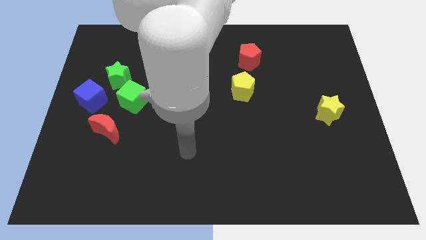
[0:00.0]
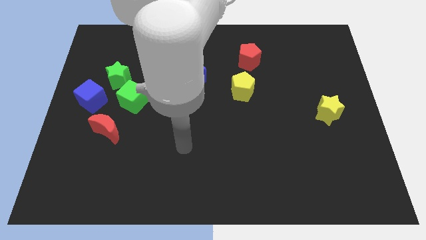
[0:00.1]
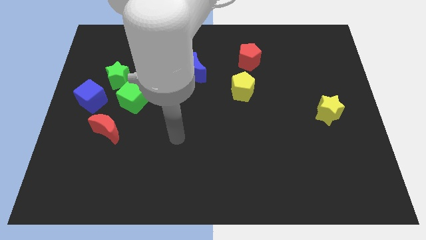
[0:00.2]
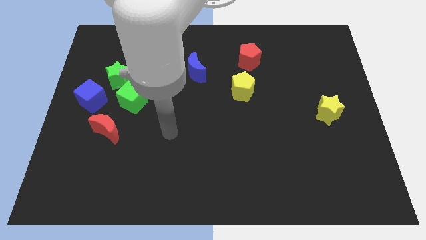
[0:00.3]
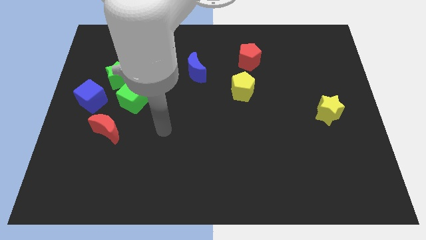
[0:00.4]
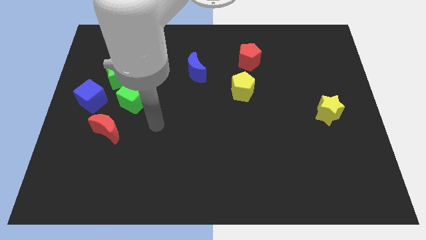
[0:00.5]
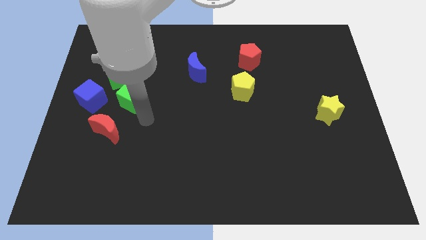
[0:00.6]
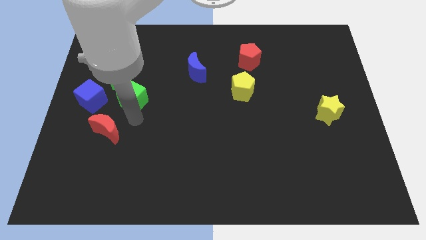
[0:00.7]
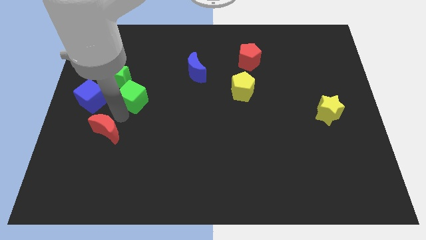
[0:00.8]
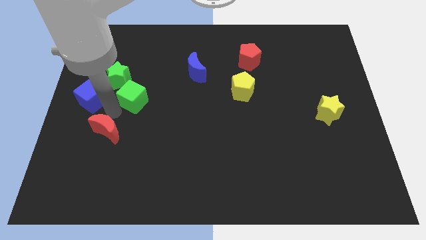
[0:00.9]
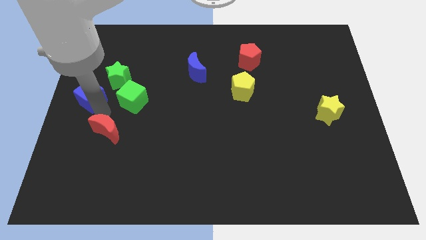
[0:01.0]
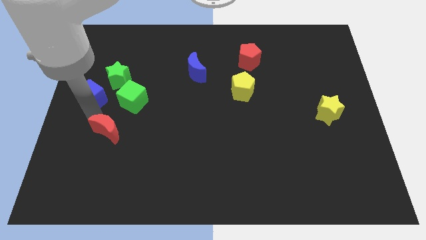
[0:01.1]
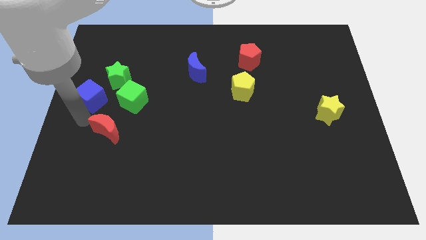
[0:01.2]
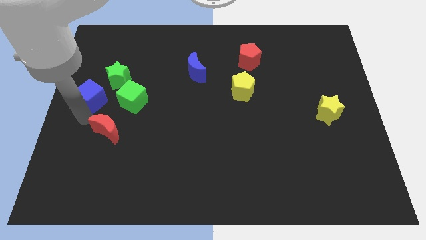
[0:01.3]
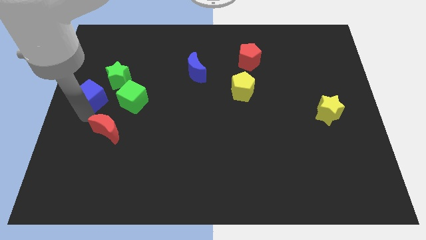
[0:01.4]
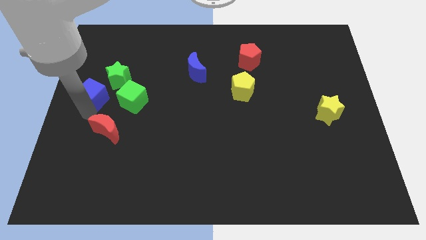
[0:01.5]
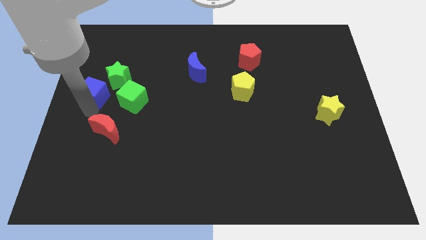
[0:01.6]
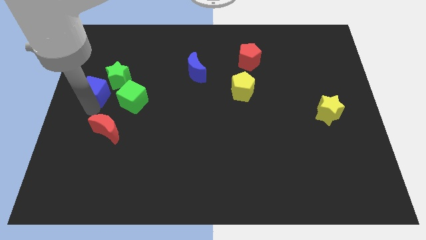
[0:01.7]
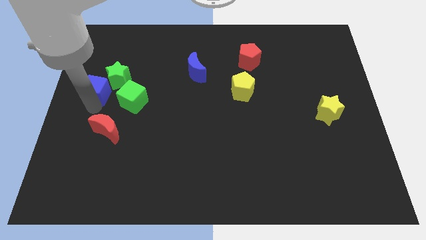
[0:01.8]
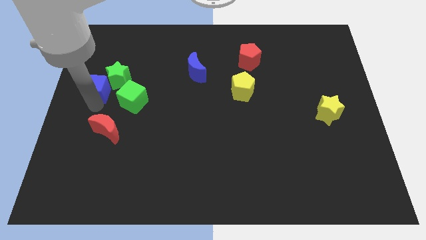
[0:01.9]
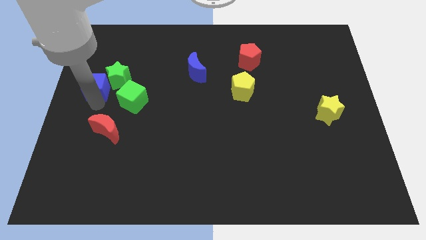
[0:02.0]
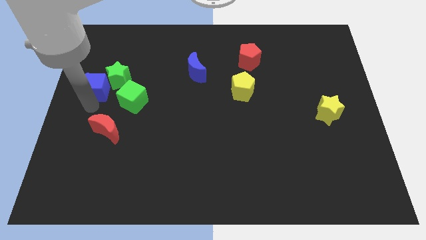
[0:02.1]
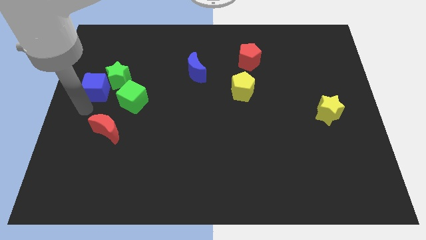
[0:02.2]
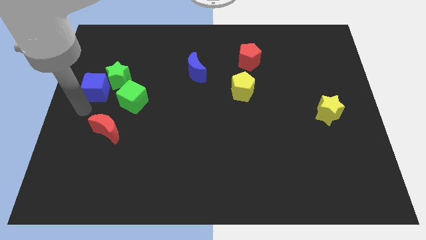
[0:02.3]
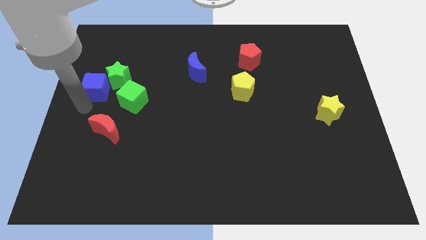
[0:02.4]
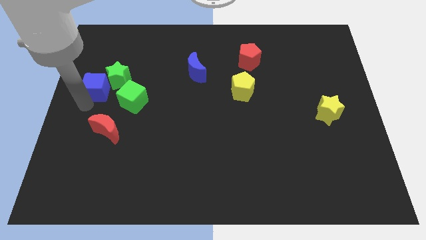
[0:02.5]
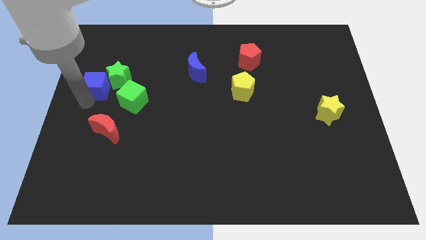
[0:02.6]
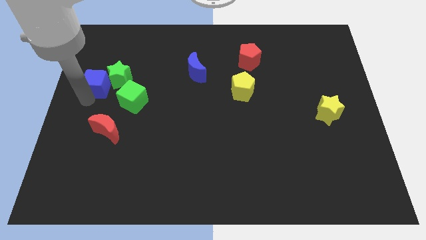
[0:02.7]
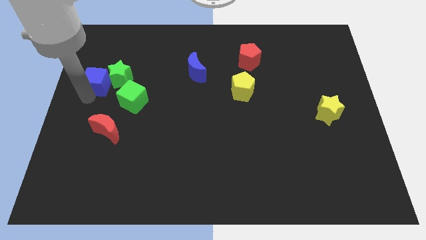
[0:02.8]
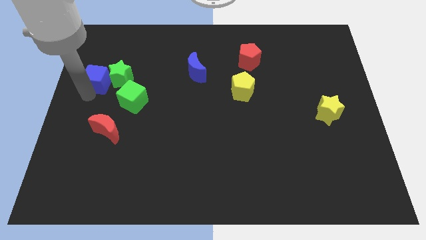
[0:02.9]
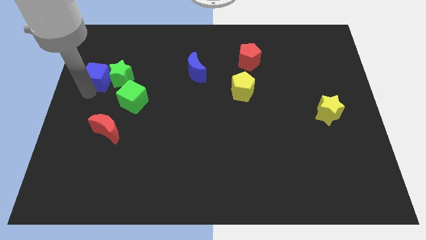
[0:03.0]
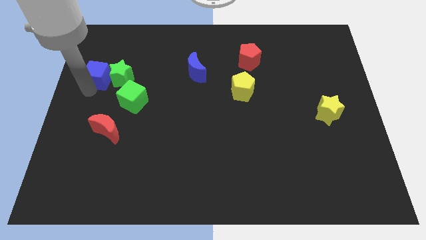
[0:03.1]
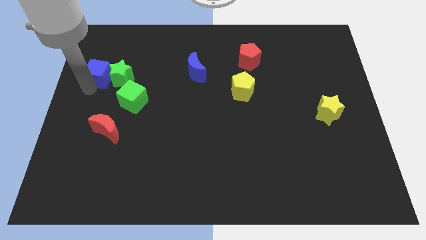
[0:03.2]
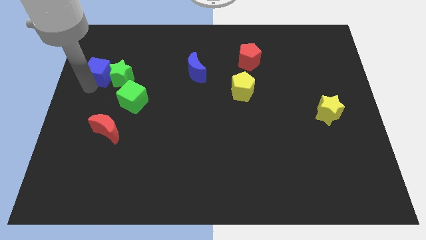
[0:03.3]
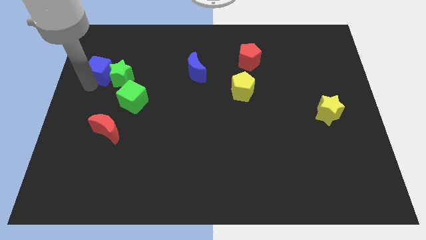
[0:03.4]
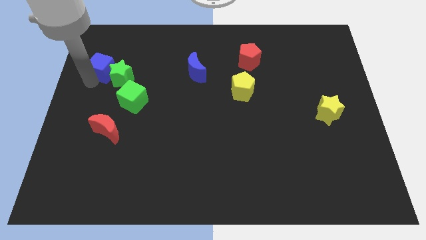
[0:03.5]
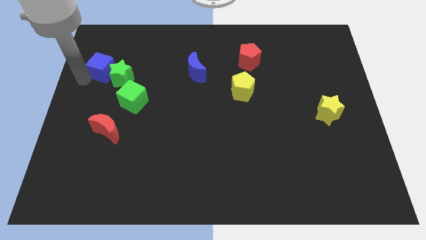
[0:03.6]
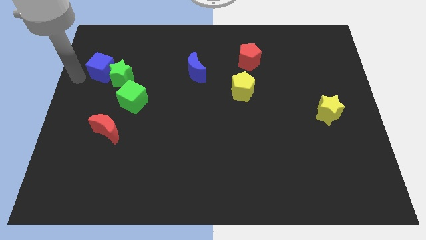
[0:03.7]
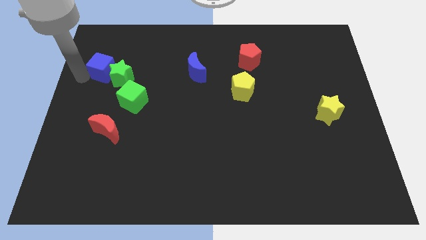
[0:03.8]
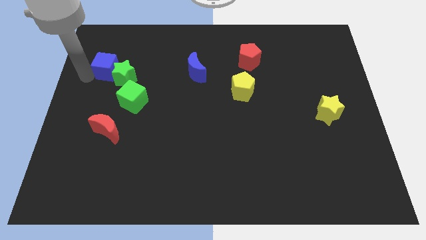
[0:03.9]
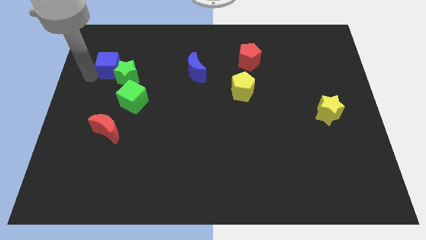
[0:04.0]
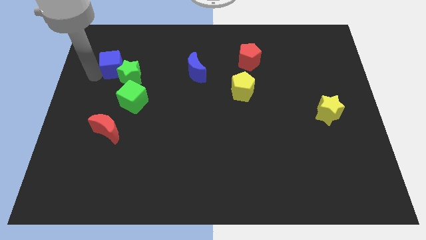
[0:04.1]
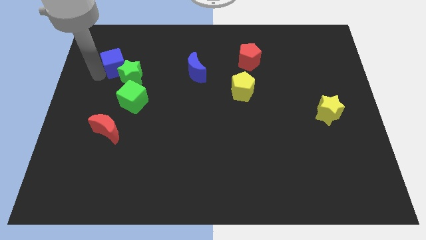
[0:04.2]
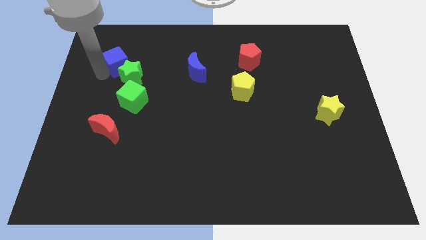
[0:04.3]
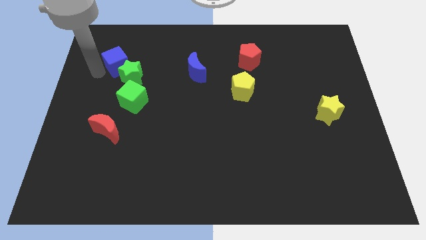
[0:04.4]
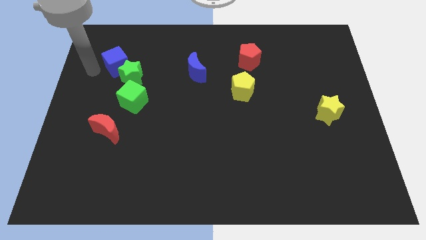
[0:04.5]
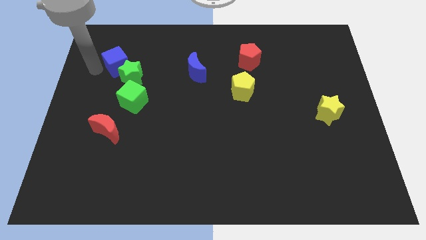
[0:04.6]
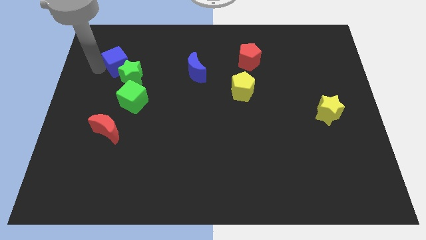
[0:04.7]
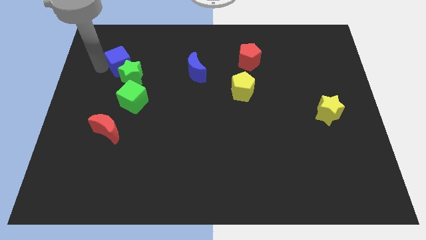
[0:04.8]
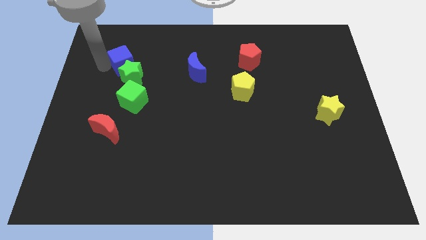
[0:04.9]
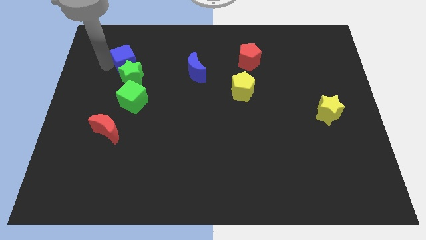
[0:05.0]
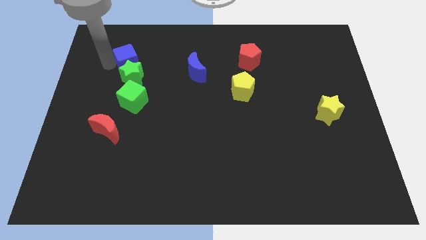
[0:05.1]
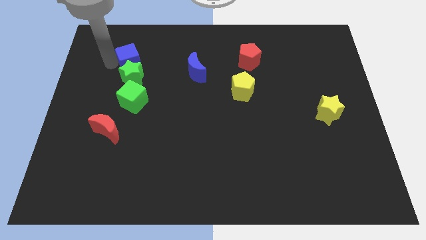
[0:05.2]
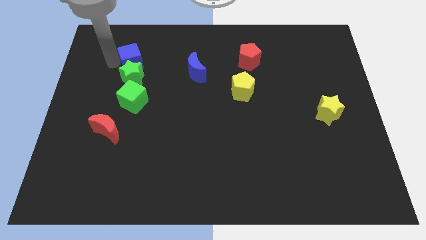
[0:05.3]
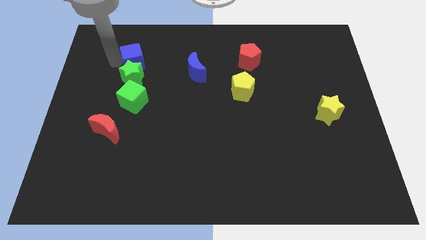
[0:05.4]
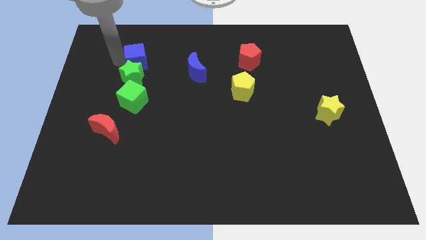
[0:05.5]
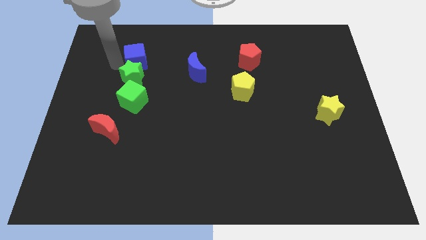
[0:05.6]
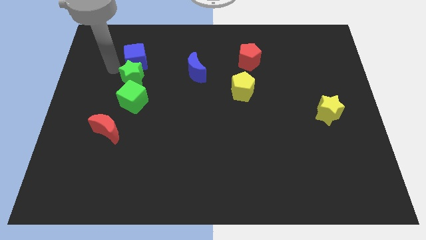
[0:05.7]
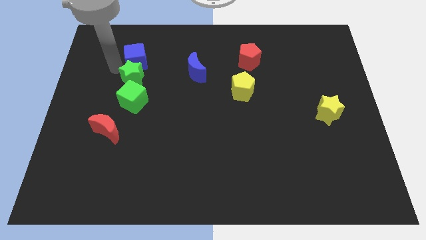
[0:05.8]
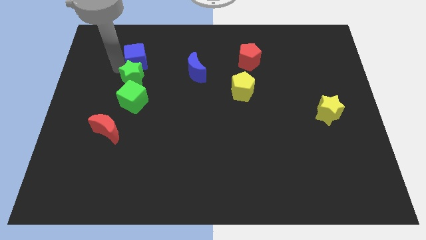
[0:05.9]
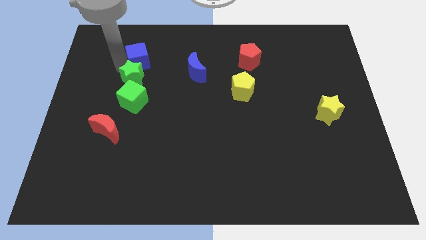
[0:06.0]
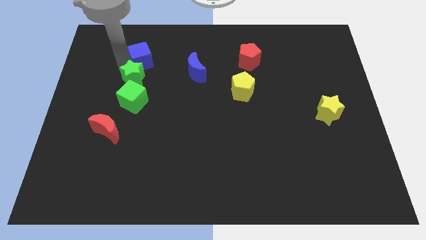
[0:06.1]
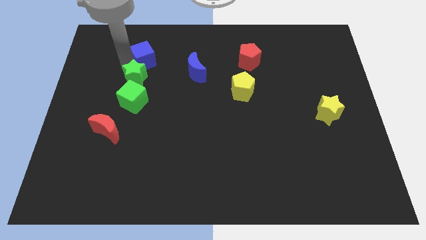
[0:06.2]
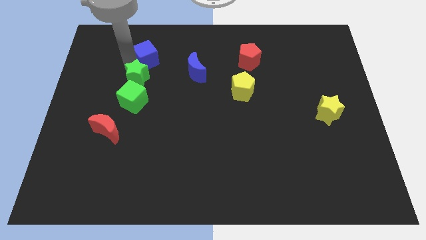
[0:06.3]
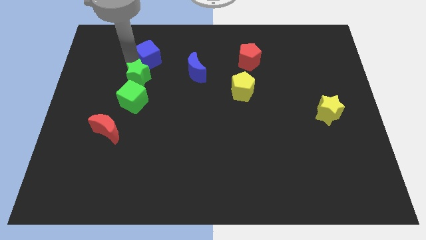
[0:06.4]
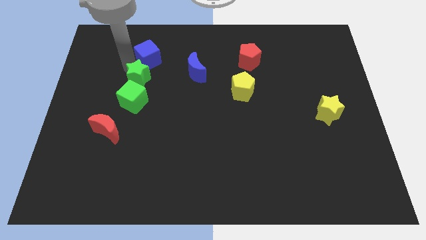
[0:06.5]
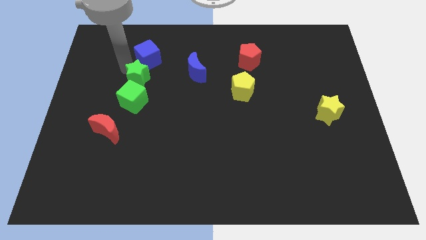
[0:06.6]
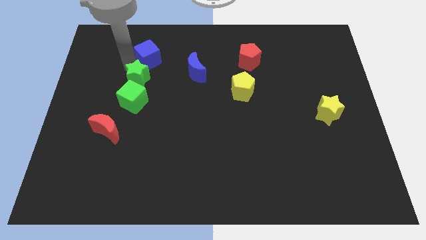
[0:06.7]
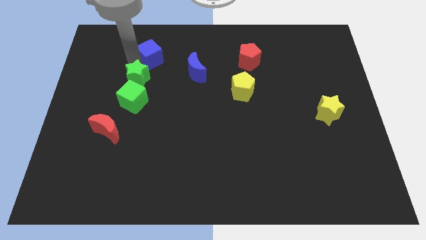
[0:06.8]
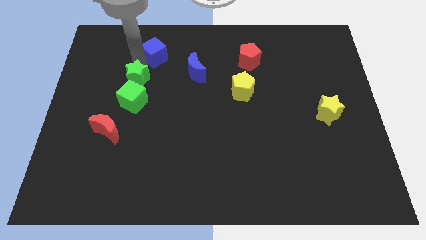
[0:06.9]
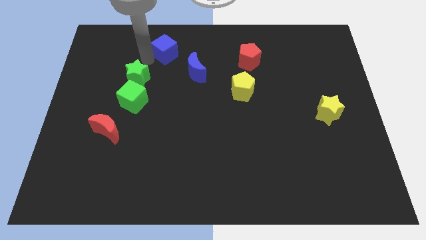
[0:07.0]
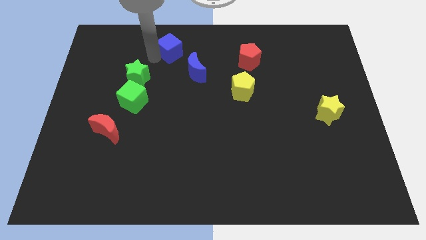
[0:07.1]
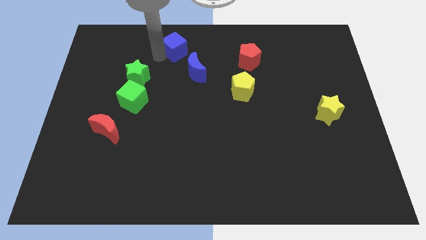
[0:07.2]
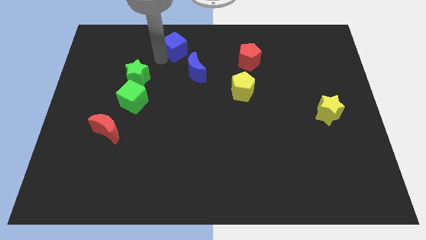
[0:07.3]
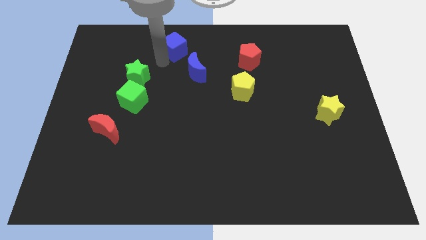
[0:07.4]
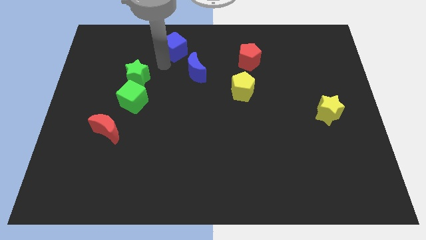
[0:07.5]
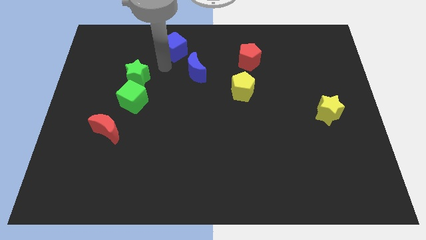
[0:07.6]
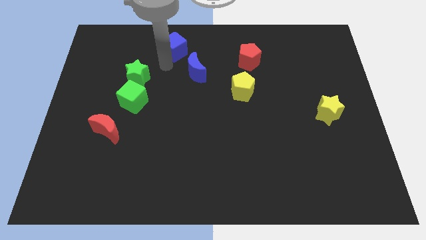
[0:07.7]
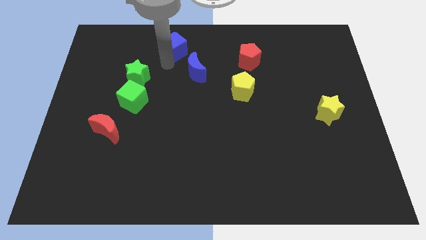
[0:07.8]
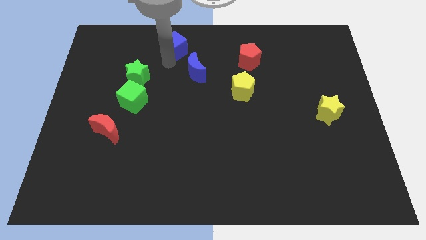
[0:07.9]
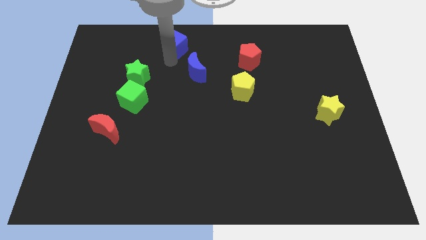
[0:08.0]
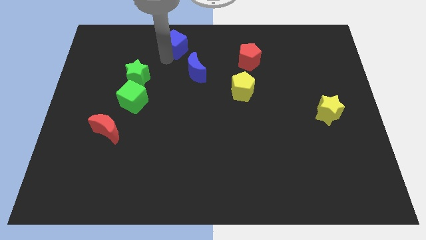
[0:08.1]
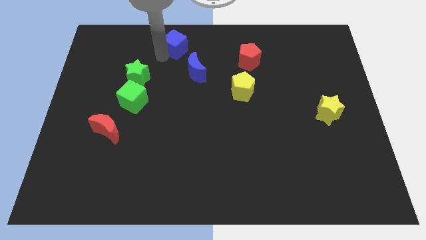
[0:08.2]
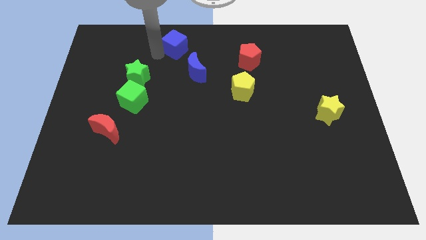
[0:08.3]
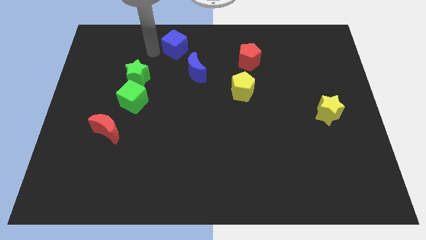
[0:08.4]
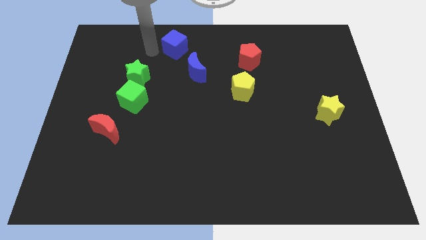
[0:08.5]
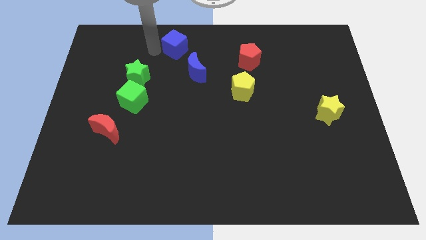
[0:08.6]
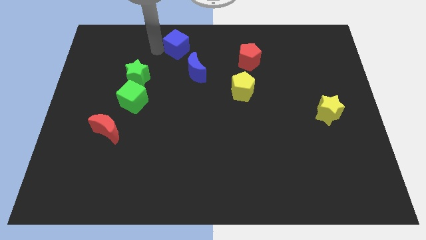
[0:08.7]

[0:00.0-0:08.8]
slide the blue cube to the top
